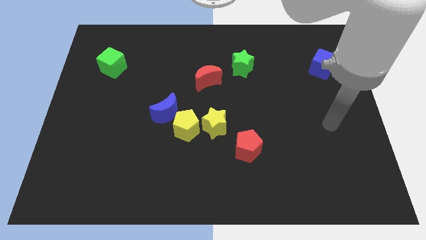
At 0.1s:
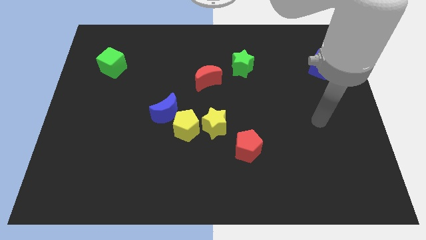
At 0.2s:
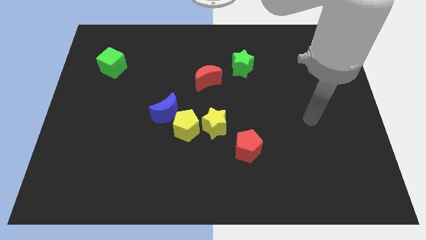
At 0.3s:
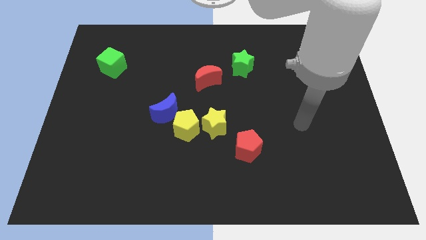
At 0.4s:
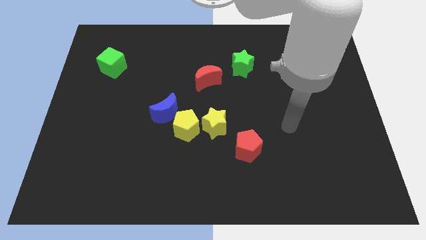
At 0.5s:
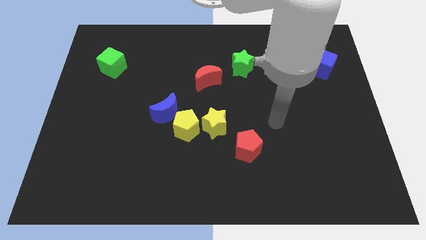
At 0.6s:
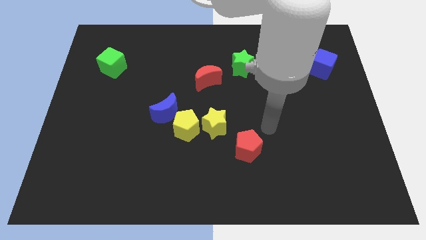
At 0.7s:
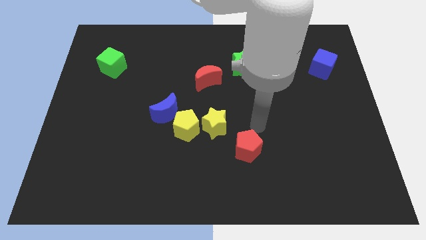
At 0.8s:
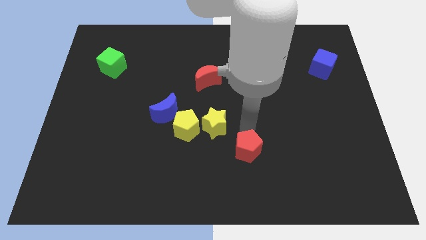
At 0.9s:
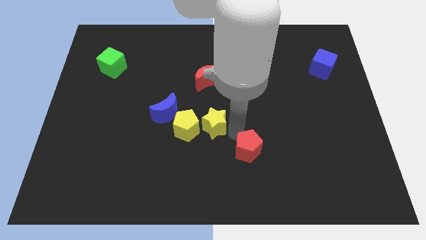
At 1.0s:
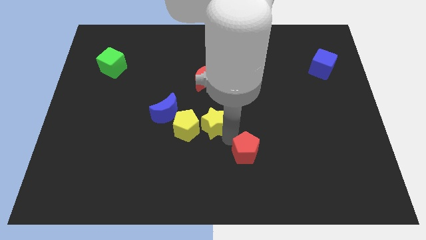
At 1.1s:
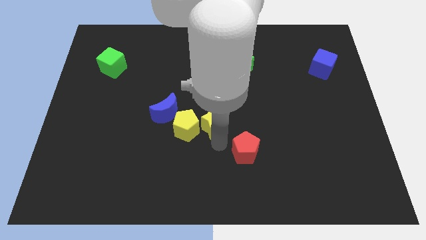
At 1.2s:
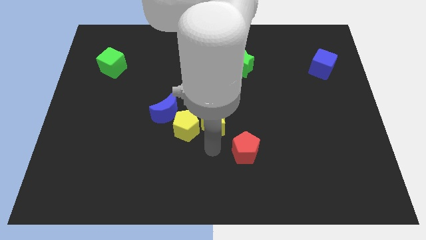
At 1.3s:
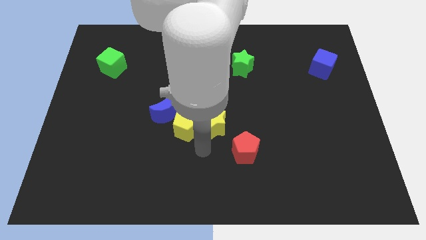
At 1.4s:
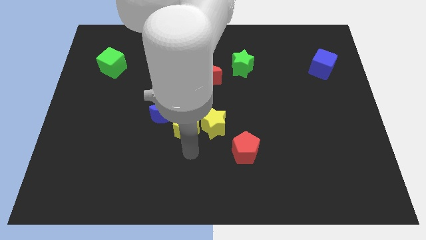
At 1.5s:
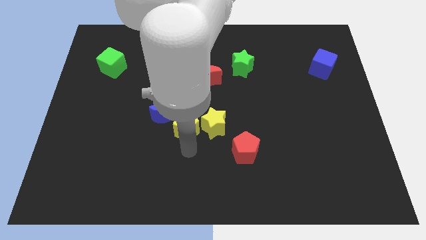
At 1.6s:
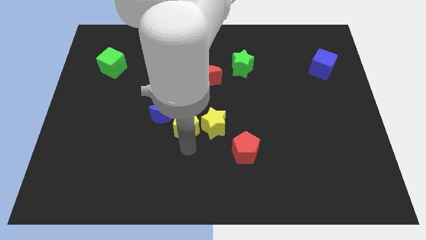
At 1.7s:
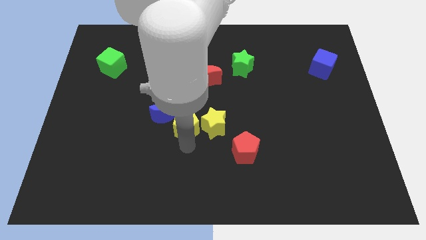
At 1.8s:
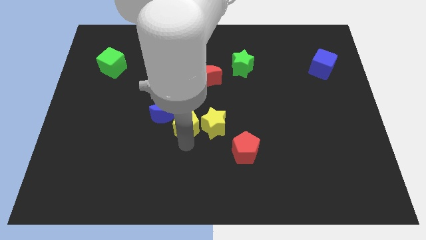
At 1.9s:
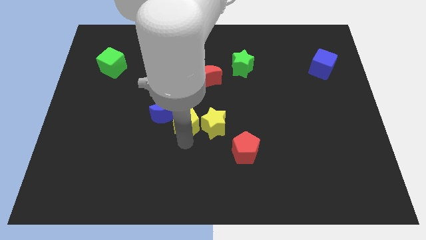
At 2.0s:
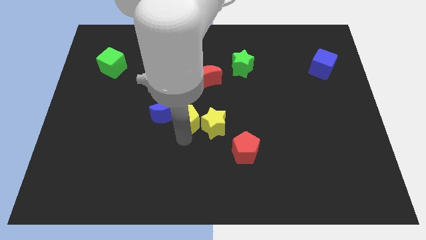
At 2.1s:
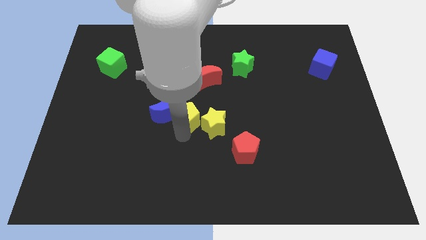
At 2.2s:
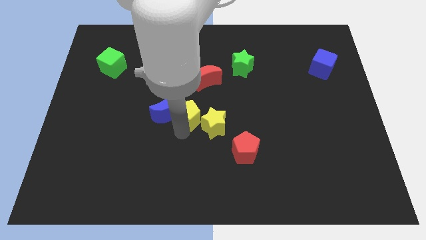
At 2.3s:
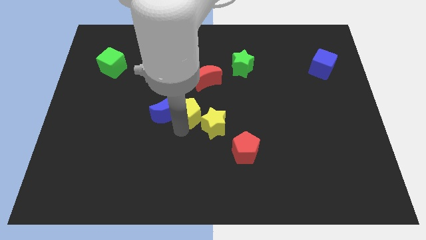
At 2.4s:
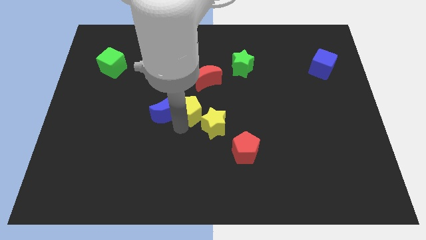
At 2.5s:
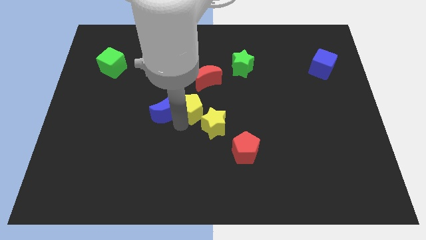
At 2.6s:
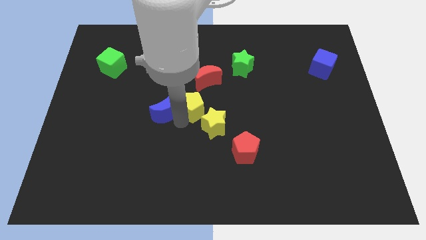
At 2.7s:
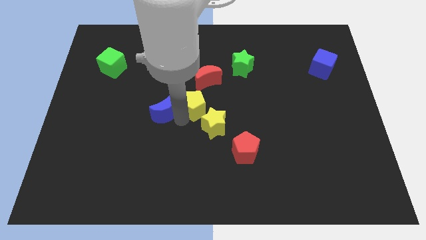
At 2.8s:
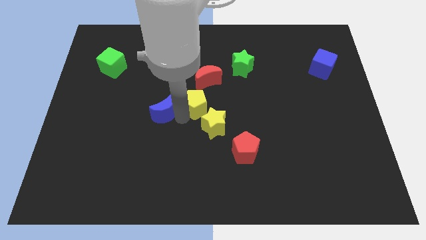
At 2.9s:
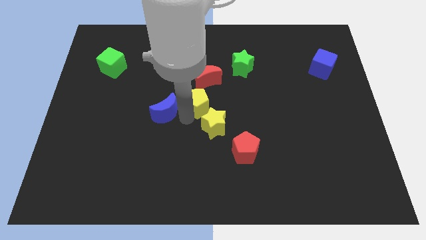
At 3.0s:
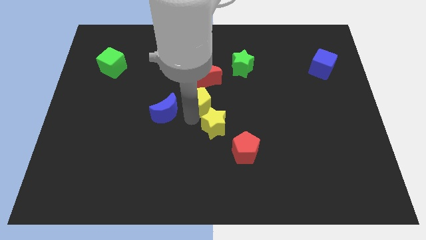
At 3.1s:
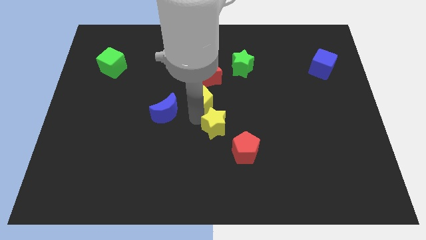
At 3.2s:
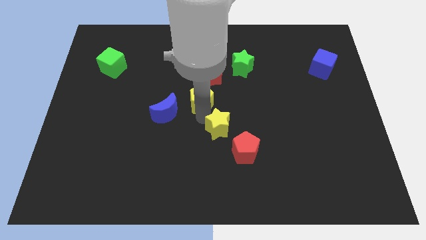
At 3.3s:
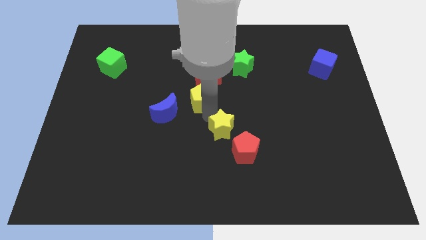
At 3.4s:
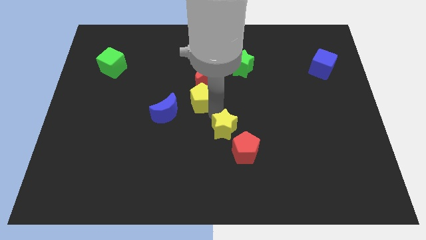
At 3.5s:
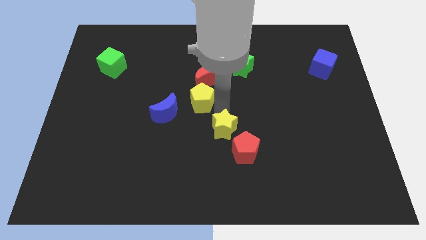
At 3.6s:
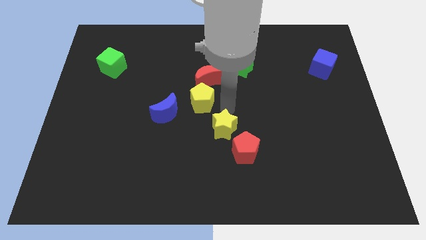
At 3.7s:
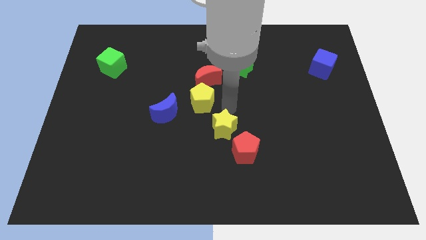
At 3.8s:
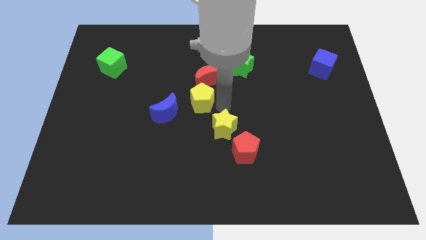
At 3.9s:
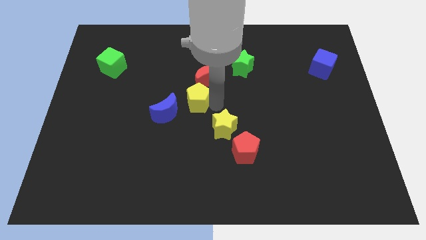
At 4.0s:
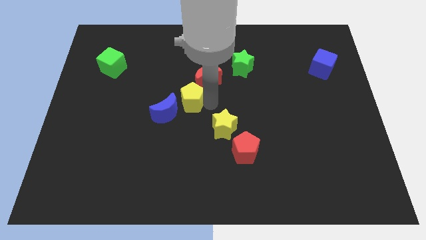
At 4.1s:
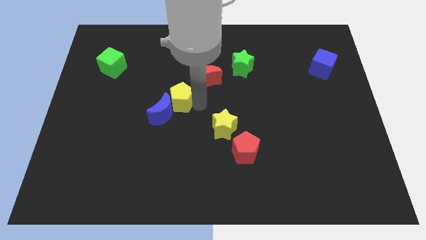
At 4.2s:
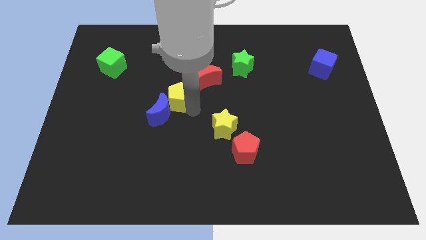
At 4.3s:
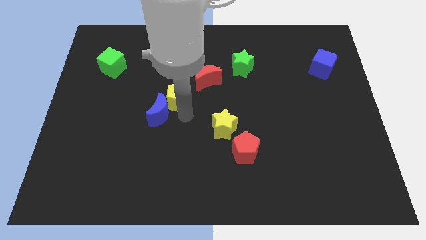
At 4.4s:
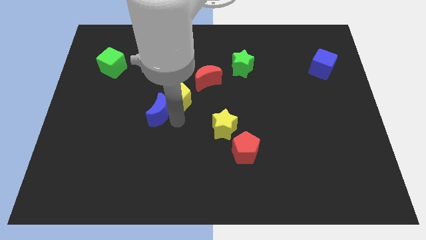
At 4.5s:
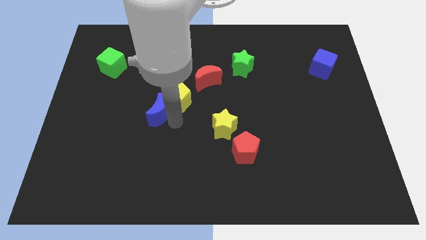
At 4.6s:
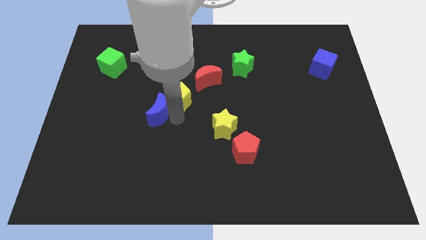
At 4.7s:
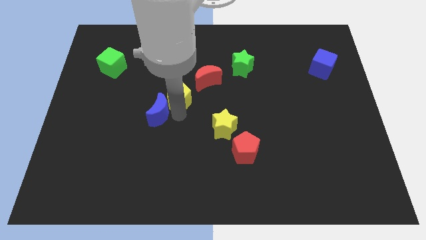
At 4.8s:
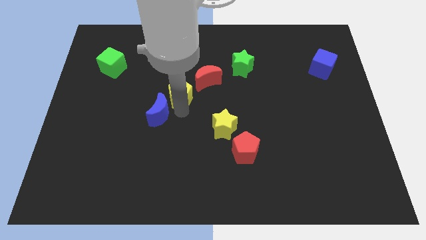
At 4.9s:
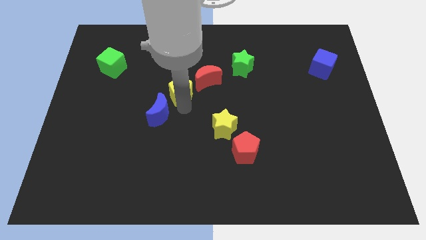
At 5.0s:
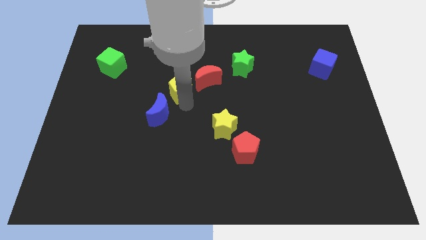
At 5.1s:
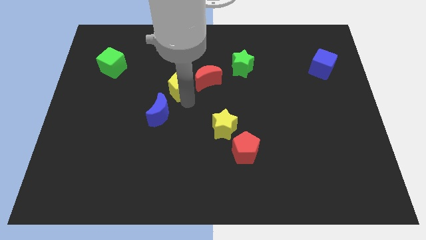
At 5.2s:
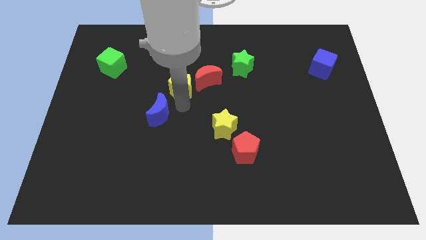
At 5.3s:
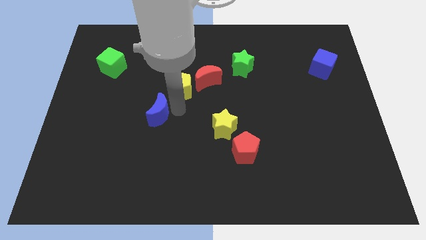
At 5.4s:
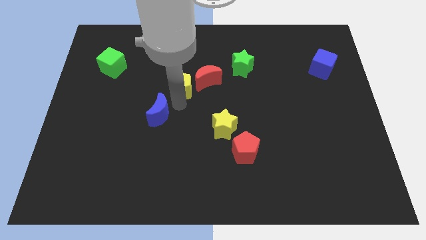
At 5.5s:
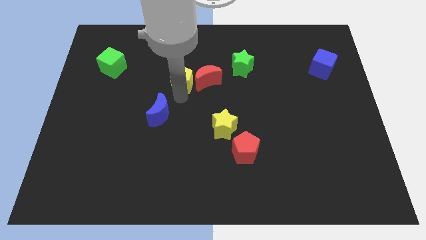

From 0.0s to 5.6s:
move the yellow pentagon diagonally up and to the left of the red moon
